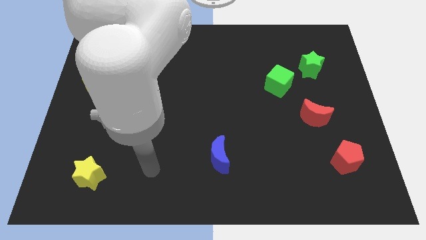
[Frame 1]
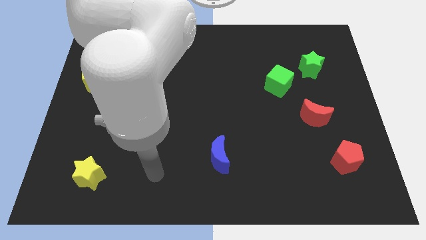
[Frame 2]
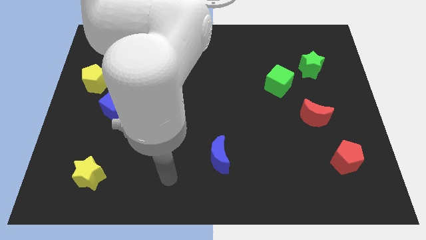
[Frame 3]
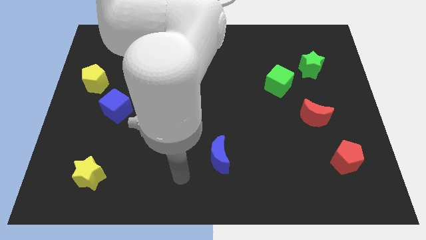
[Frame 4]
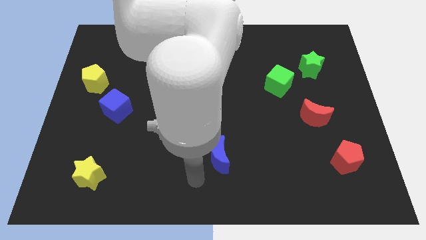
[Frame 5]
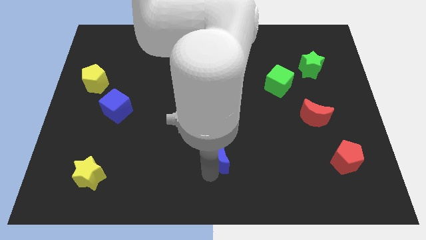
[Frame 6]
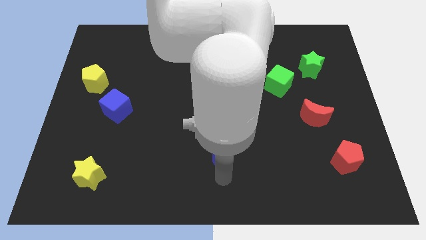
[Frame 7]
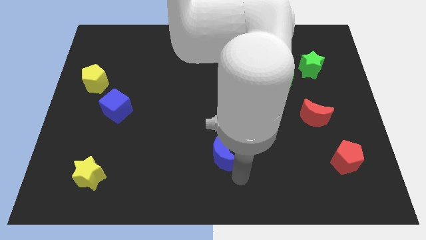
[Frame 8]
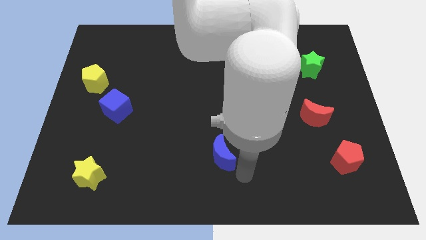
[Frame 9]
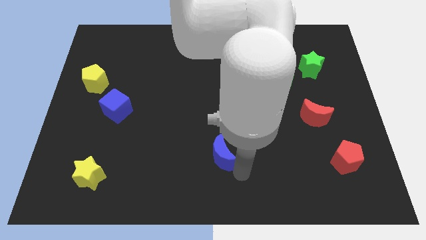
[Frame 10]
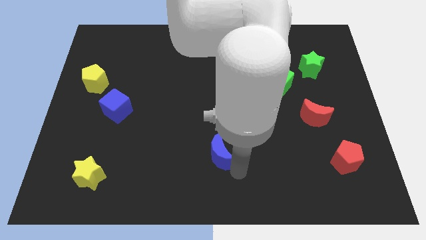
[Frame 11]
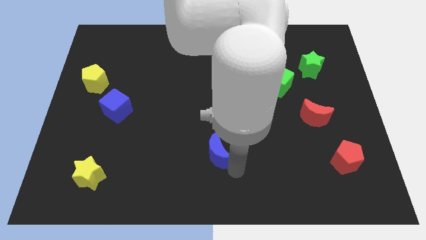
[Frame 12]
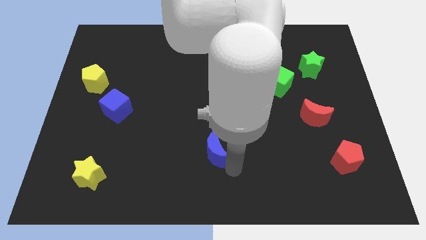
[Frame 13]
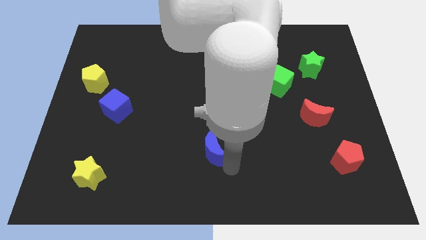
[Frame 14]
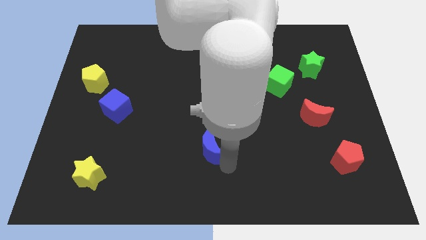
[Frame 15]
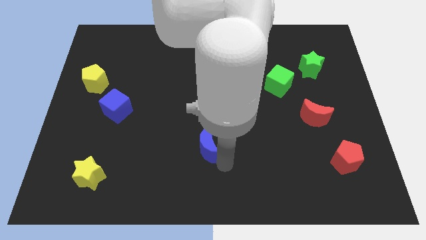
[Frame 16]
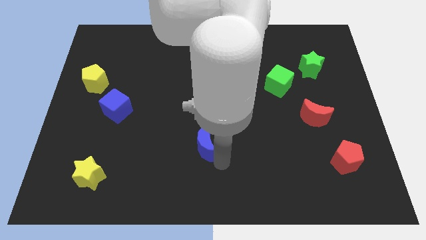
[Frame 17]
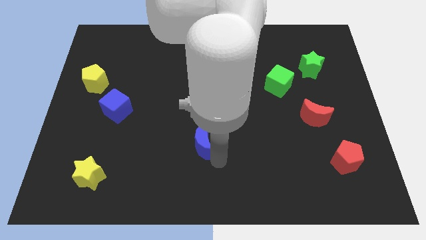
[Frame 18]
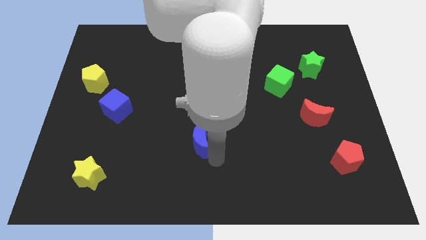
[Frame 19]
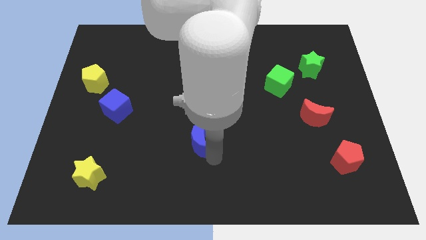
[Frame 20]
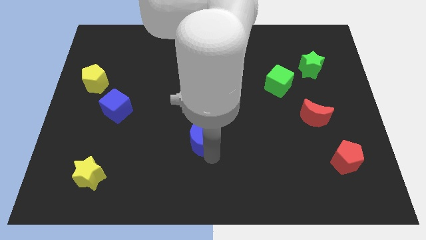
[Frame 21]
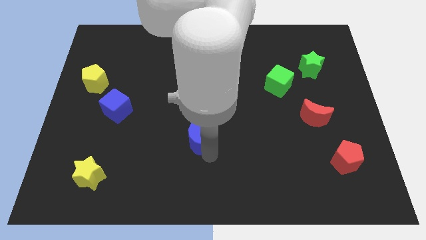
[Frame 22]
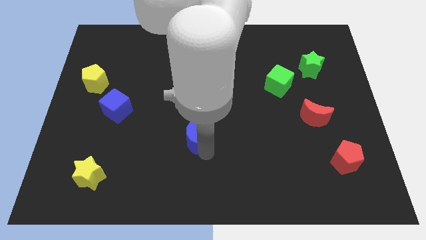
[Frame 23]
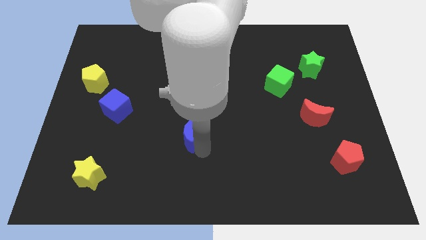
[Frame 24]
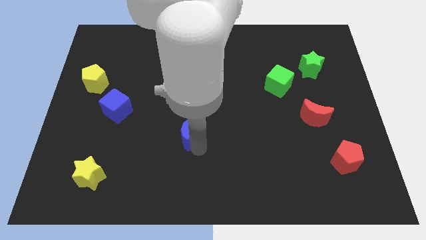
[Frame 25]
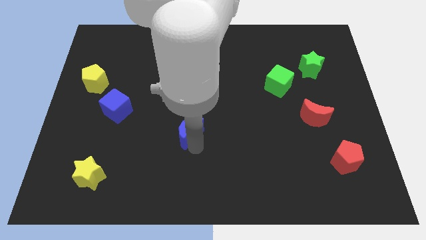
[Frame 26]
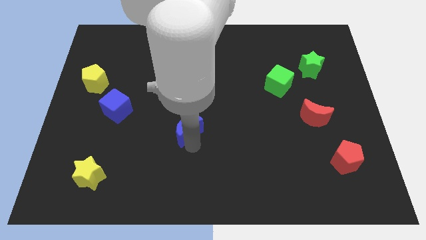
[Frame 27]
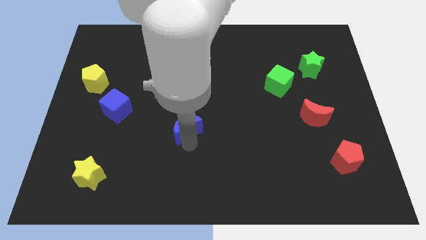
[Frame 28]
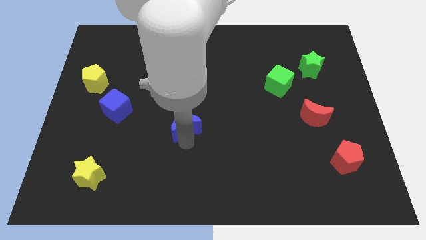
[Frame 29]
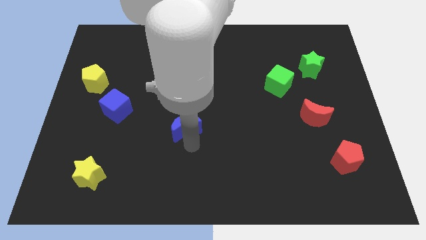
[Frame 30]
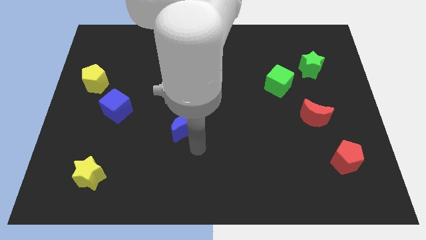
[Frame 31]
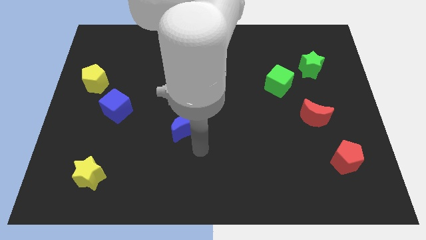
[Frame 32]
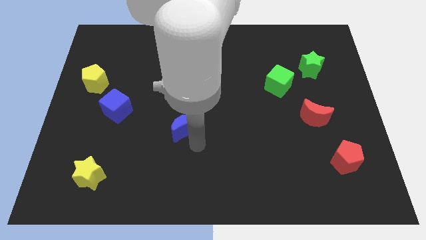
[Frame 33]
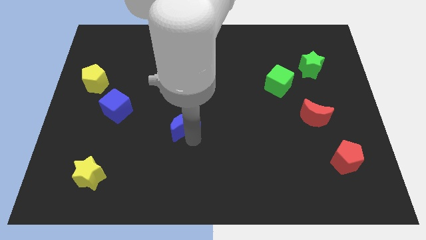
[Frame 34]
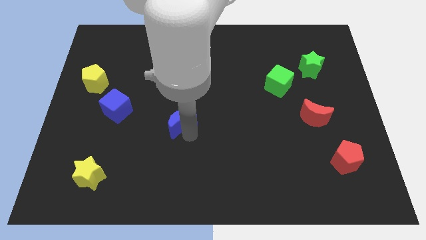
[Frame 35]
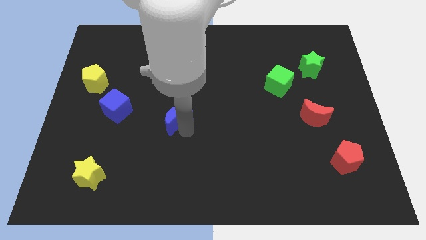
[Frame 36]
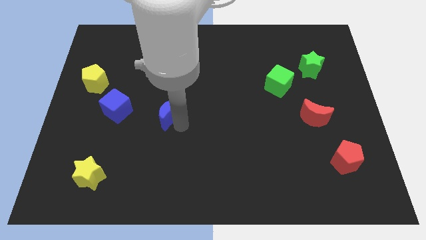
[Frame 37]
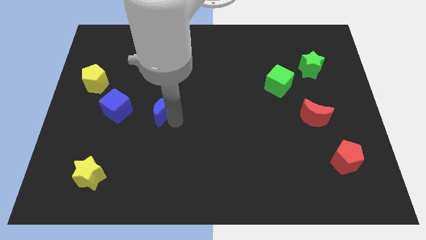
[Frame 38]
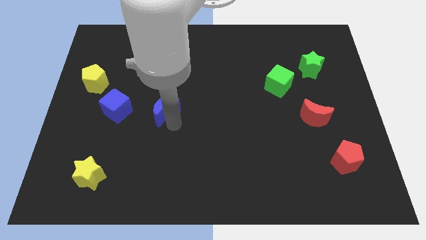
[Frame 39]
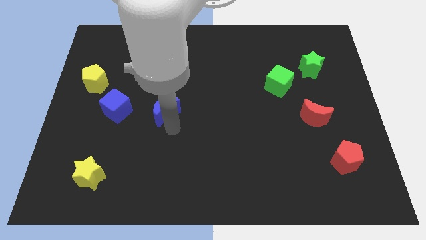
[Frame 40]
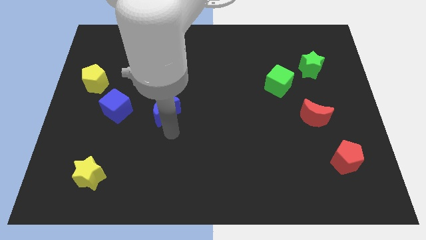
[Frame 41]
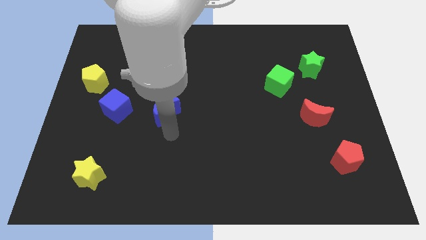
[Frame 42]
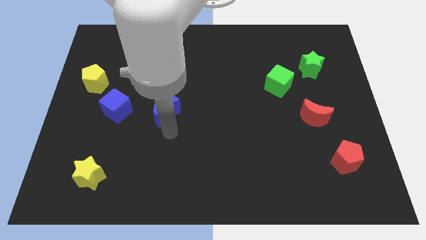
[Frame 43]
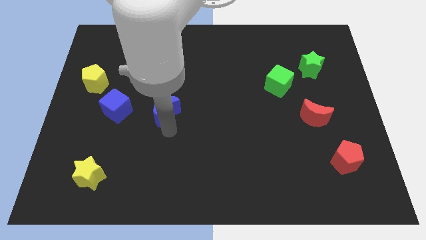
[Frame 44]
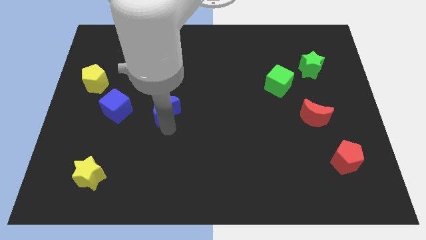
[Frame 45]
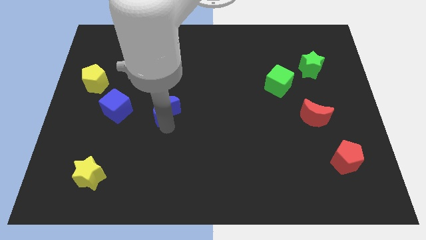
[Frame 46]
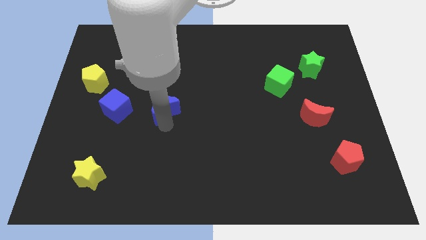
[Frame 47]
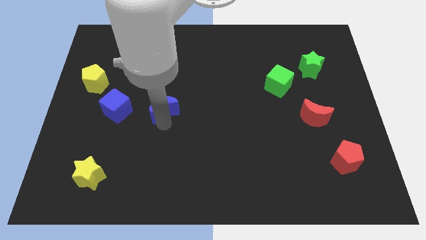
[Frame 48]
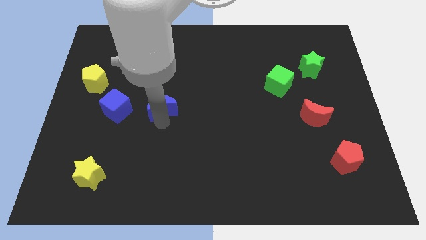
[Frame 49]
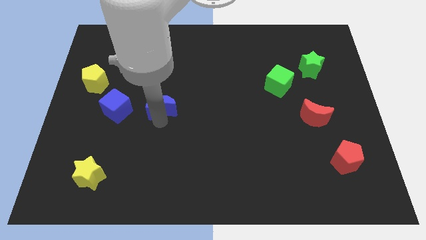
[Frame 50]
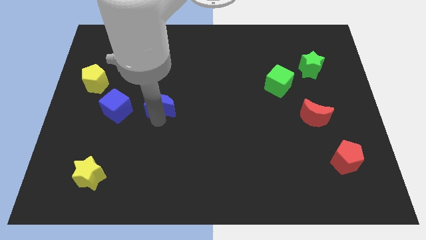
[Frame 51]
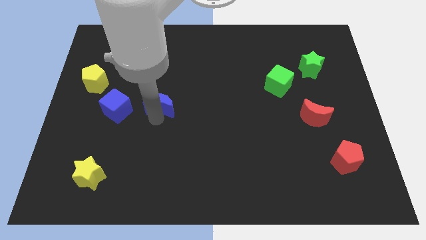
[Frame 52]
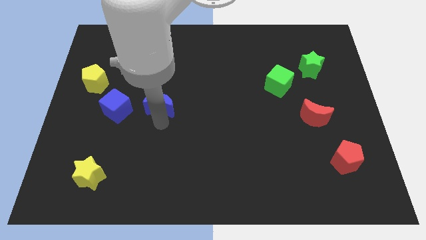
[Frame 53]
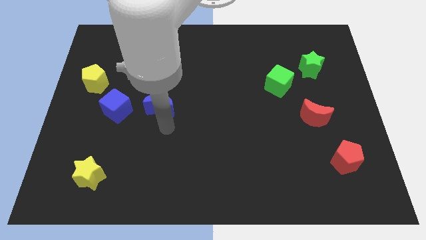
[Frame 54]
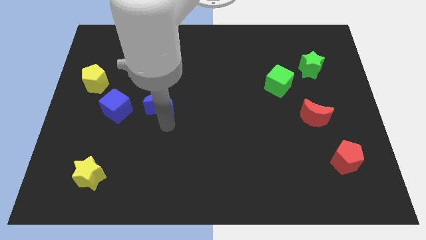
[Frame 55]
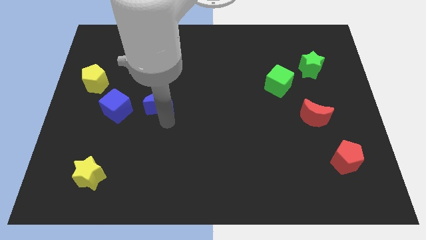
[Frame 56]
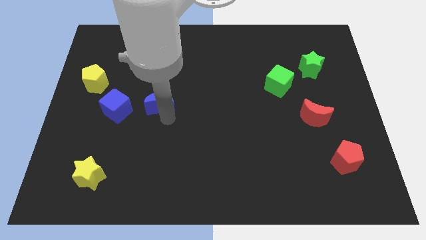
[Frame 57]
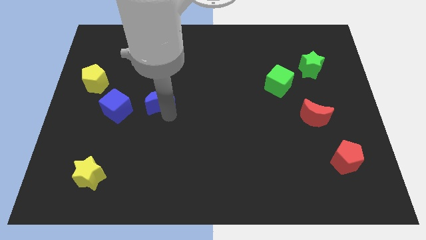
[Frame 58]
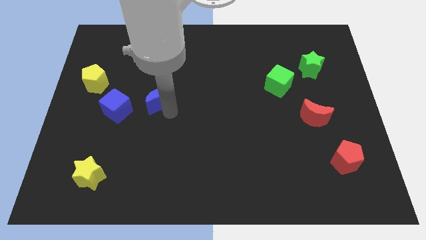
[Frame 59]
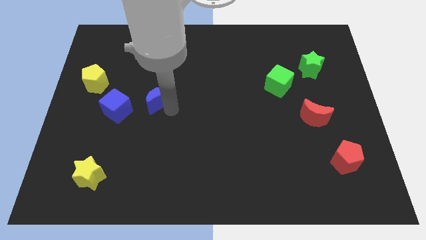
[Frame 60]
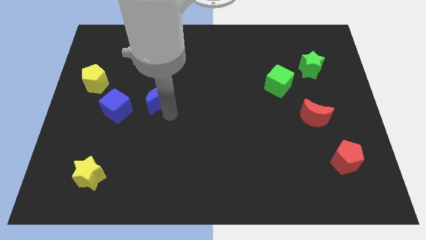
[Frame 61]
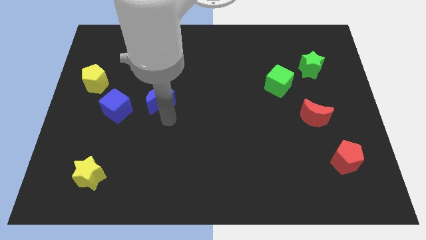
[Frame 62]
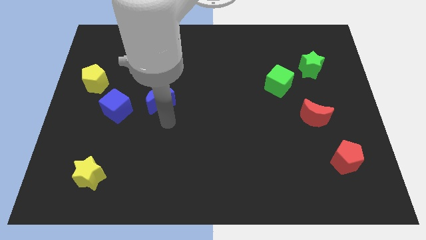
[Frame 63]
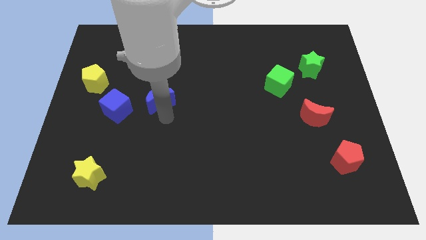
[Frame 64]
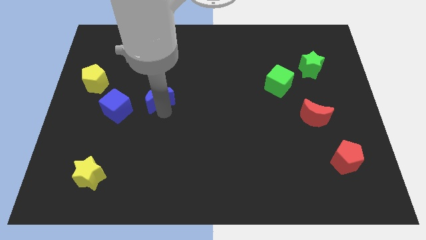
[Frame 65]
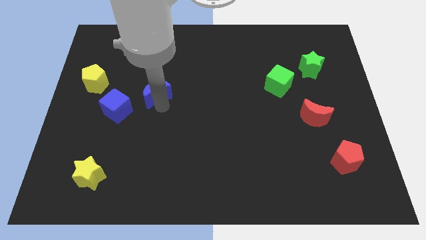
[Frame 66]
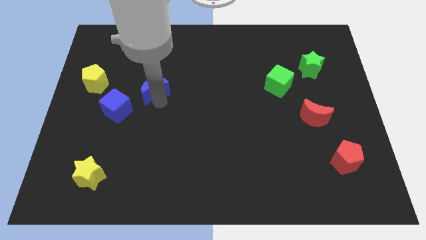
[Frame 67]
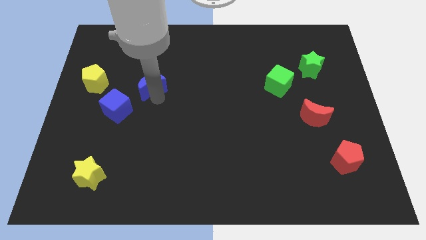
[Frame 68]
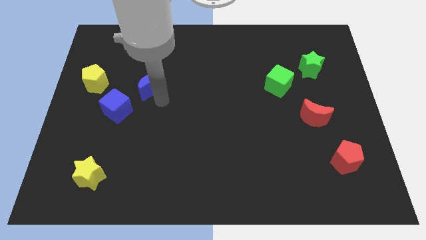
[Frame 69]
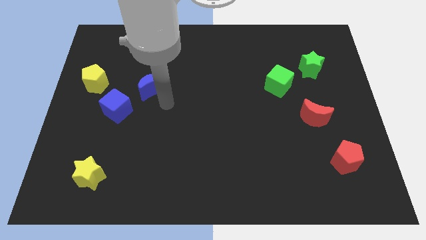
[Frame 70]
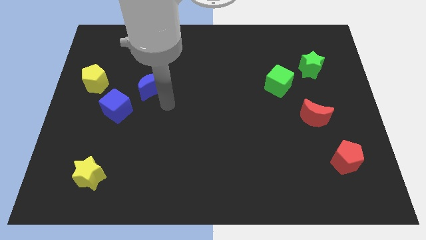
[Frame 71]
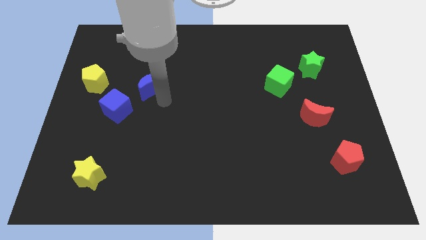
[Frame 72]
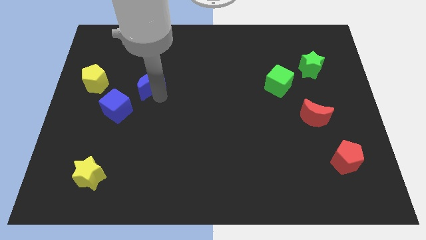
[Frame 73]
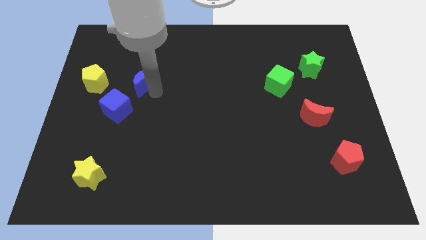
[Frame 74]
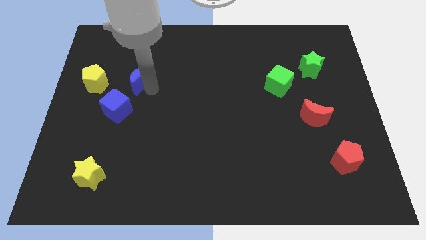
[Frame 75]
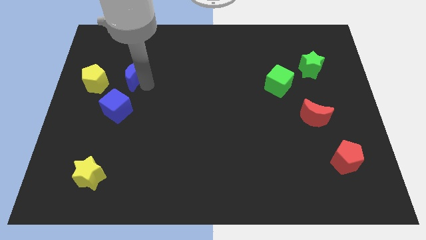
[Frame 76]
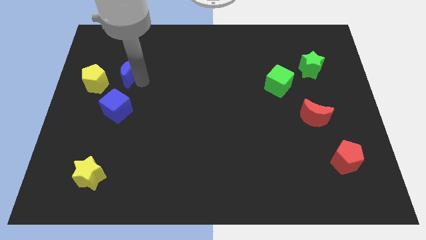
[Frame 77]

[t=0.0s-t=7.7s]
put the blue moon to the top right side of the yellow pentagon
